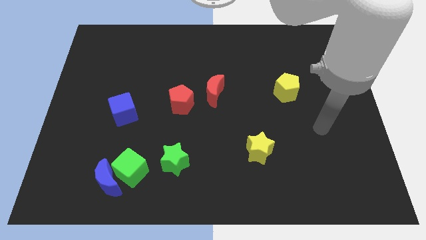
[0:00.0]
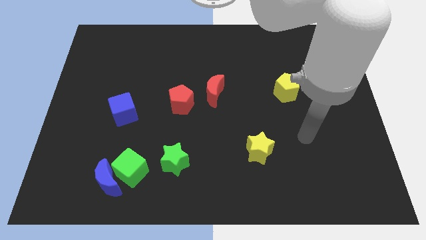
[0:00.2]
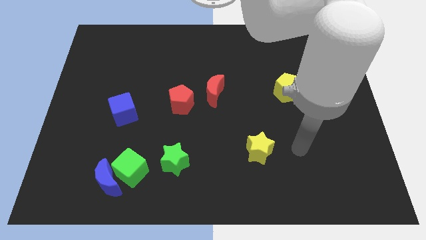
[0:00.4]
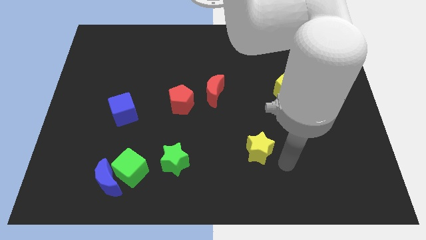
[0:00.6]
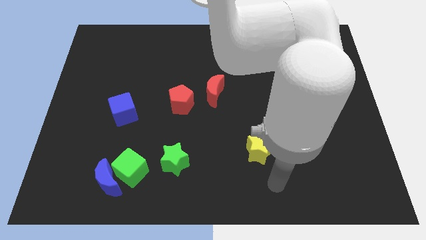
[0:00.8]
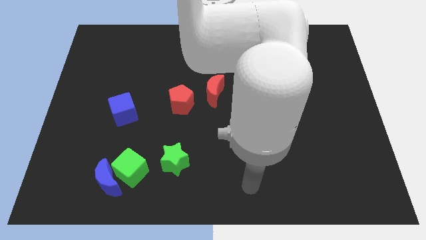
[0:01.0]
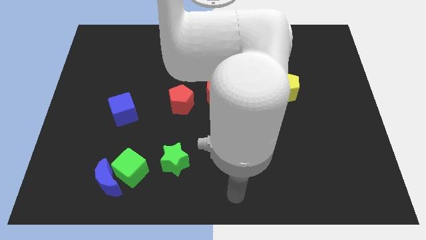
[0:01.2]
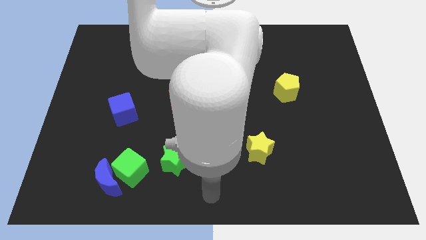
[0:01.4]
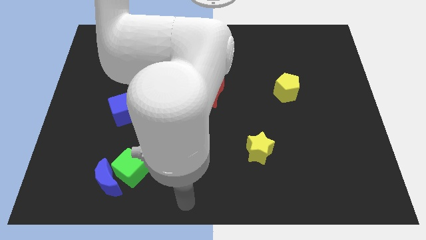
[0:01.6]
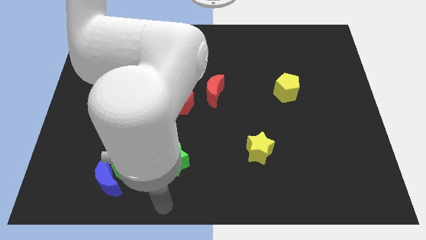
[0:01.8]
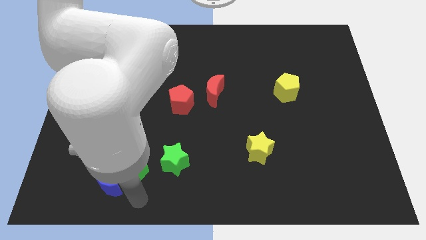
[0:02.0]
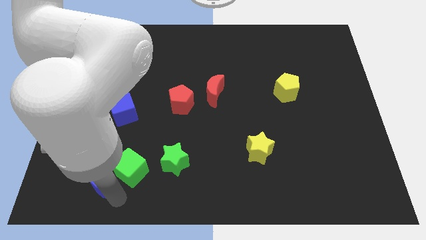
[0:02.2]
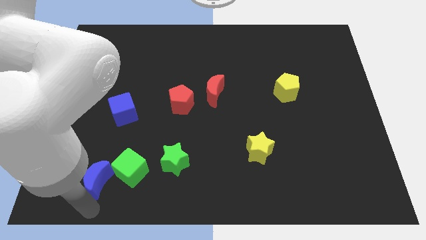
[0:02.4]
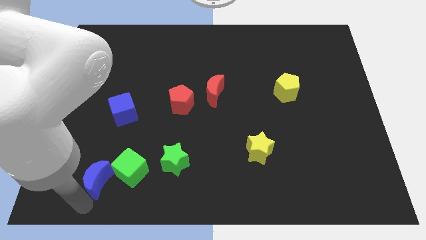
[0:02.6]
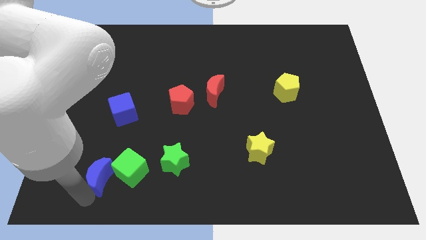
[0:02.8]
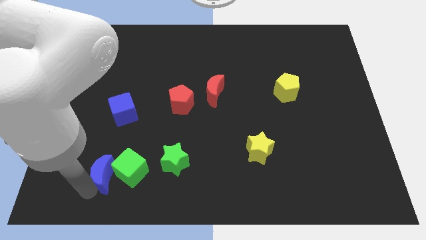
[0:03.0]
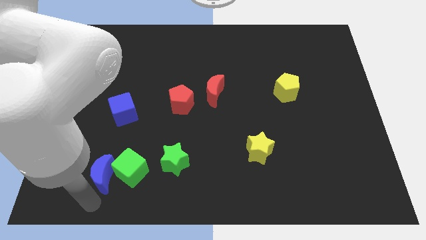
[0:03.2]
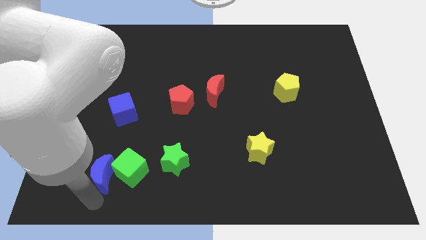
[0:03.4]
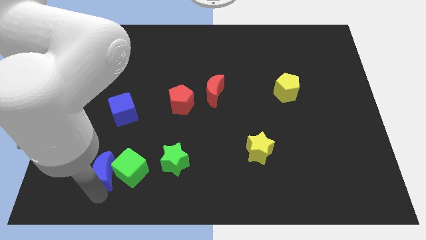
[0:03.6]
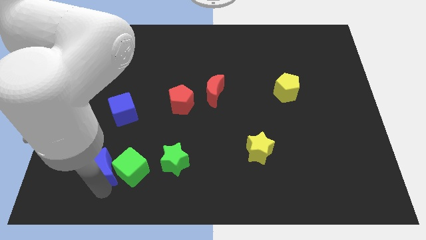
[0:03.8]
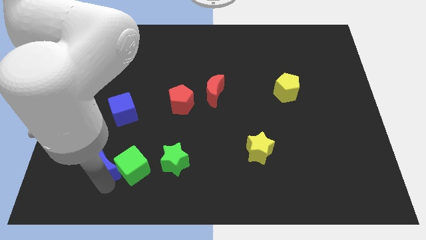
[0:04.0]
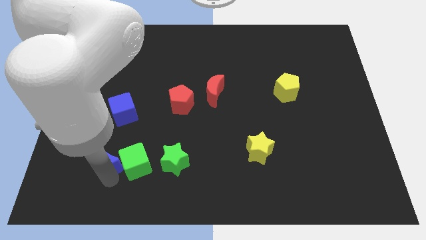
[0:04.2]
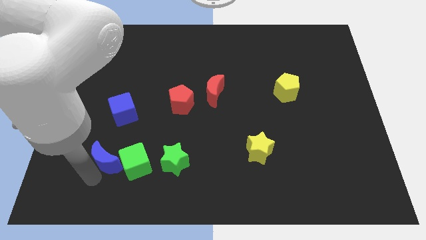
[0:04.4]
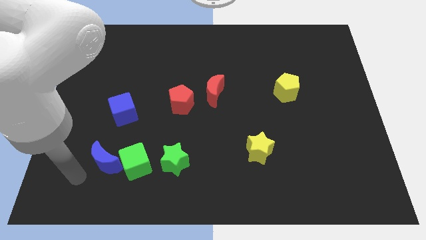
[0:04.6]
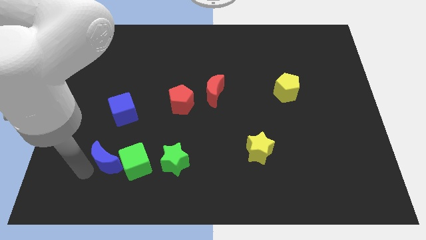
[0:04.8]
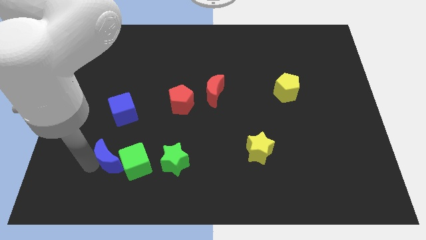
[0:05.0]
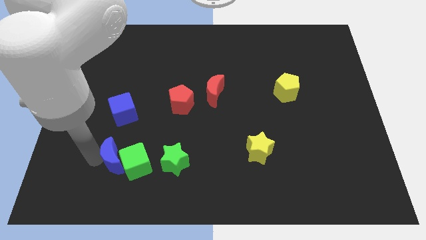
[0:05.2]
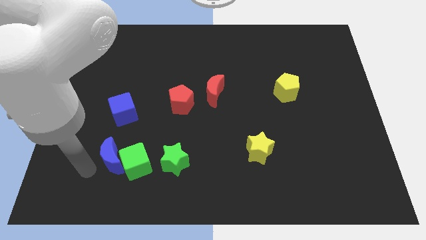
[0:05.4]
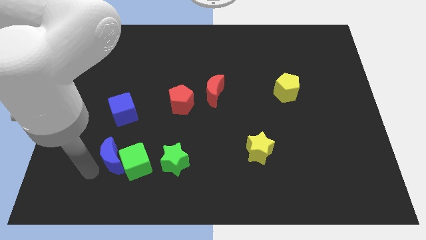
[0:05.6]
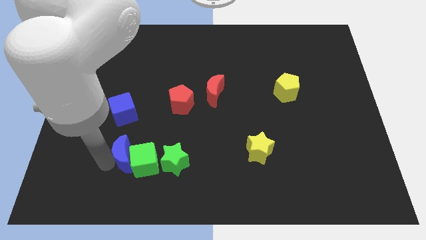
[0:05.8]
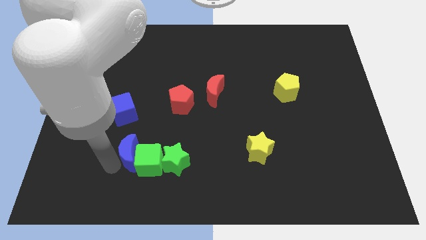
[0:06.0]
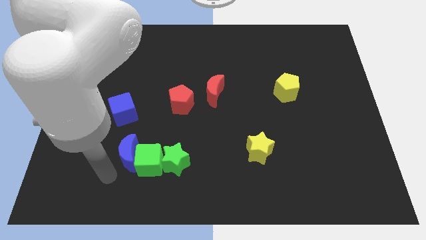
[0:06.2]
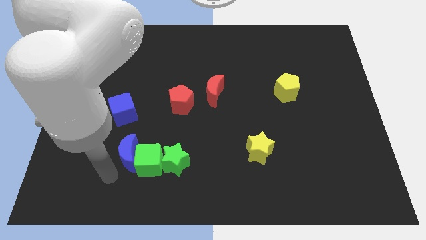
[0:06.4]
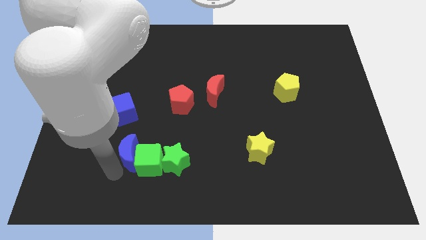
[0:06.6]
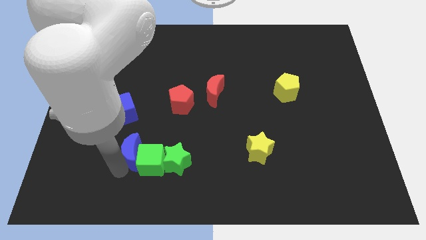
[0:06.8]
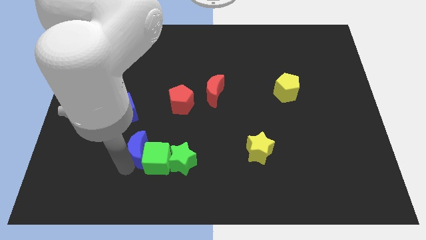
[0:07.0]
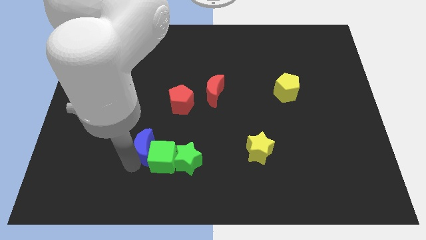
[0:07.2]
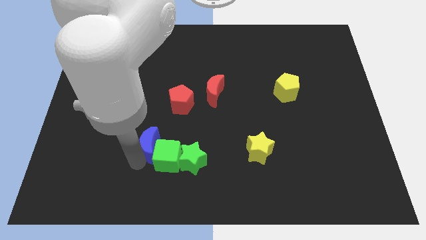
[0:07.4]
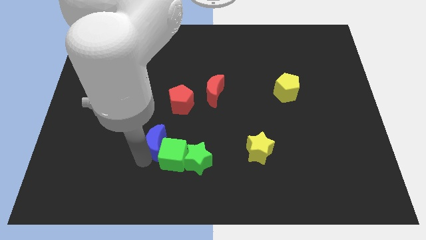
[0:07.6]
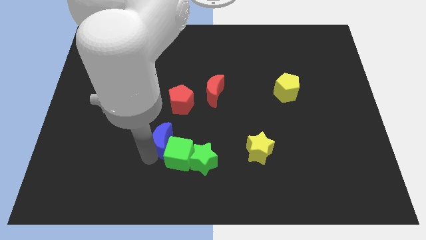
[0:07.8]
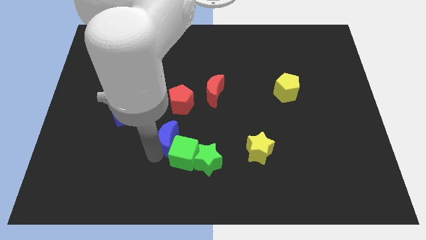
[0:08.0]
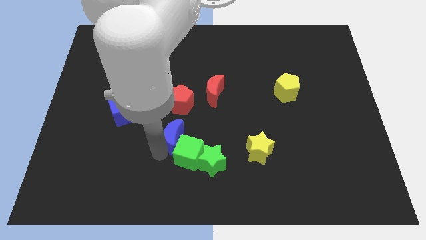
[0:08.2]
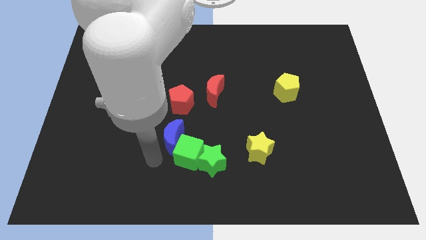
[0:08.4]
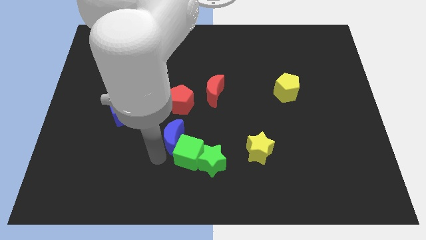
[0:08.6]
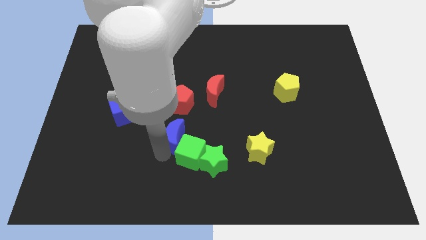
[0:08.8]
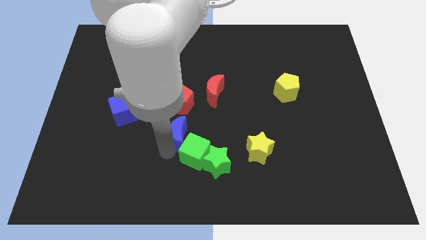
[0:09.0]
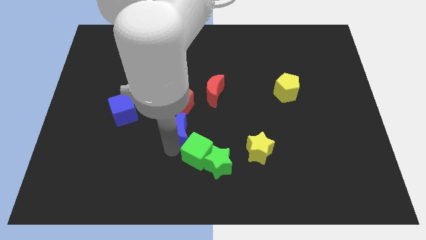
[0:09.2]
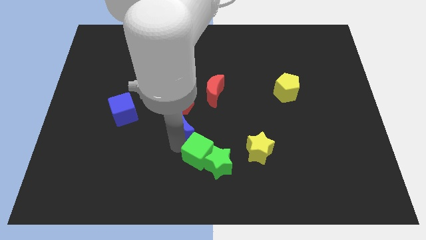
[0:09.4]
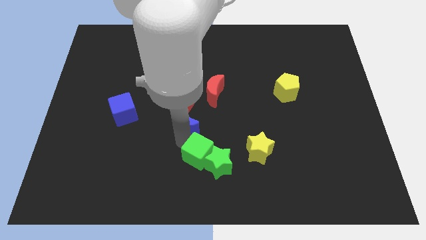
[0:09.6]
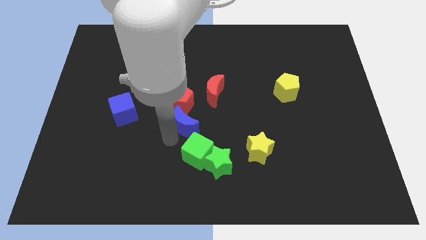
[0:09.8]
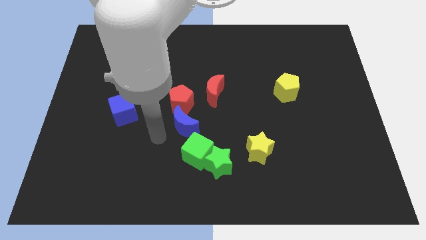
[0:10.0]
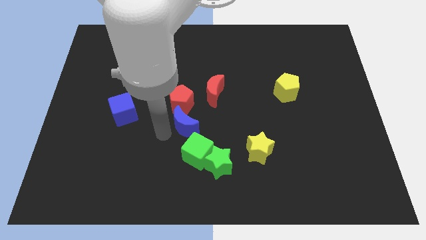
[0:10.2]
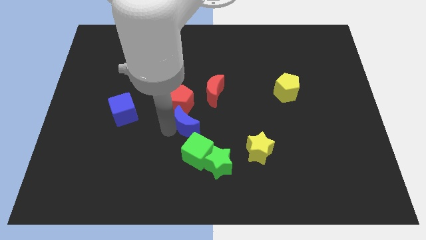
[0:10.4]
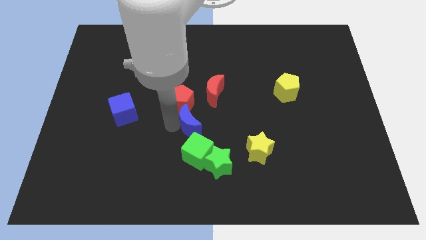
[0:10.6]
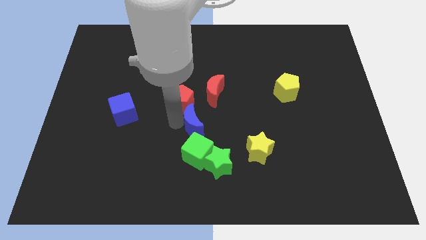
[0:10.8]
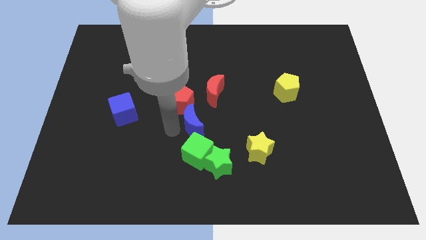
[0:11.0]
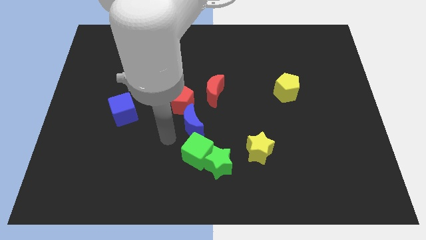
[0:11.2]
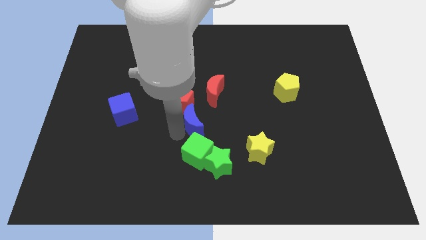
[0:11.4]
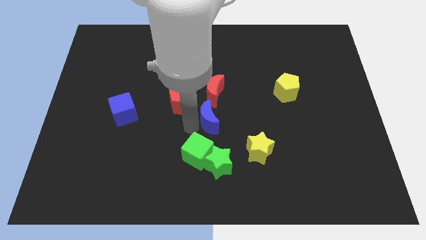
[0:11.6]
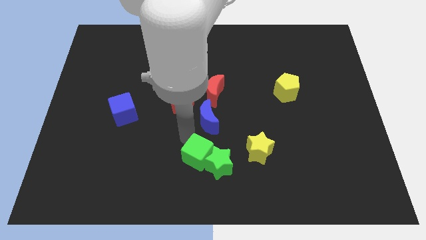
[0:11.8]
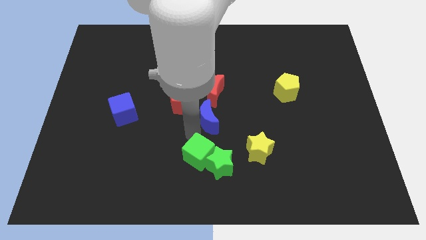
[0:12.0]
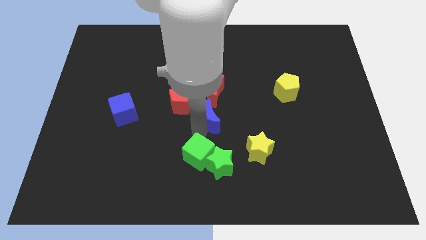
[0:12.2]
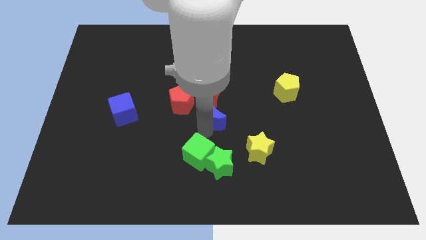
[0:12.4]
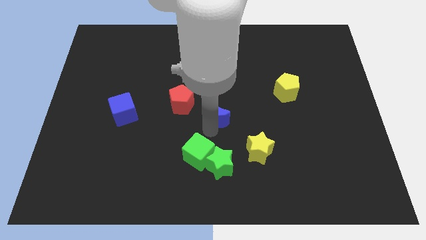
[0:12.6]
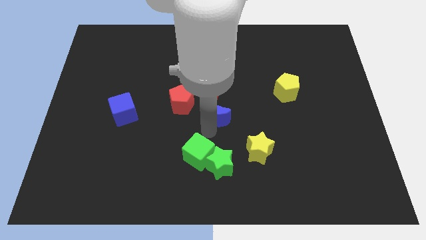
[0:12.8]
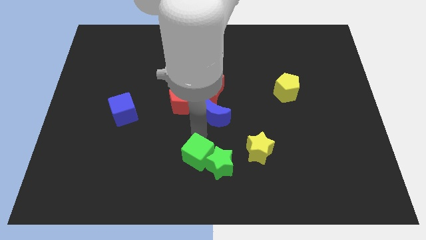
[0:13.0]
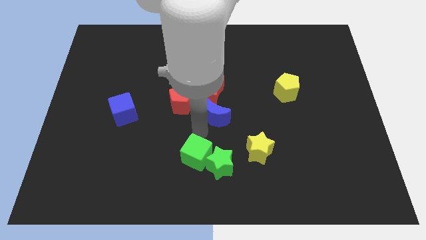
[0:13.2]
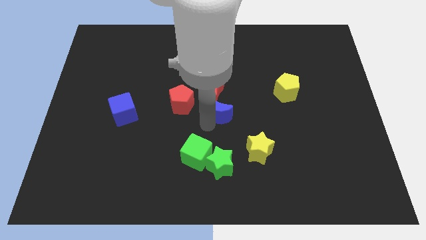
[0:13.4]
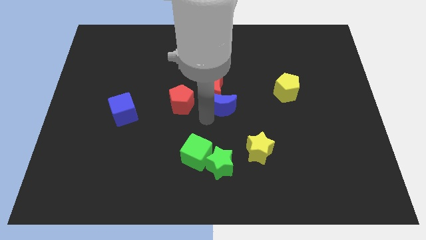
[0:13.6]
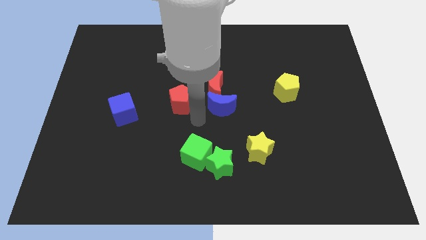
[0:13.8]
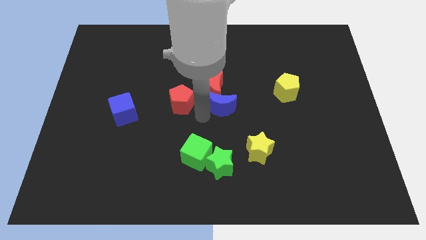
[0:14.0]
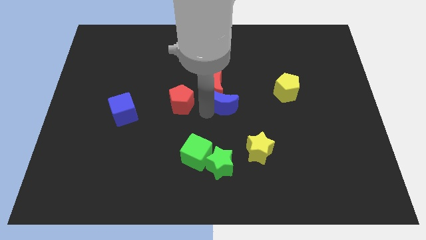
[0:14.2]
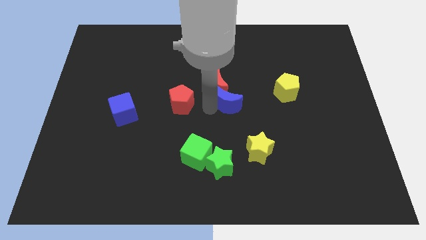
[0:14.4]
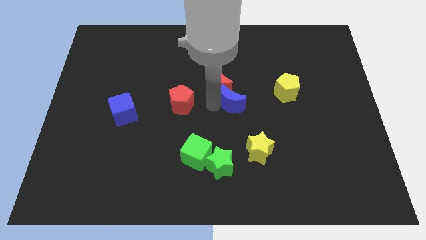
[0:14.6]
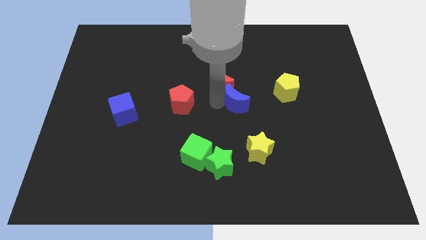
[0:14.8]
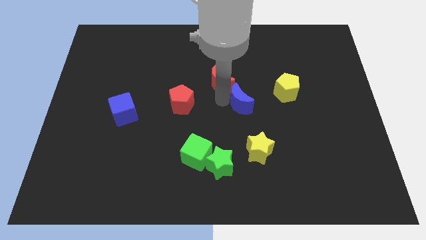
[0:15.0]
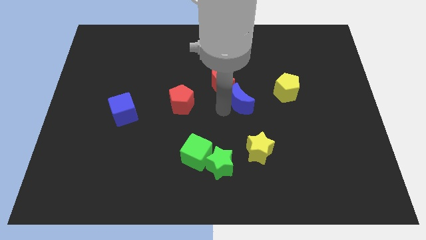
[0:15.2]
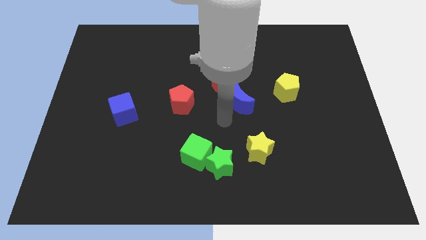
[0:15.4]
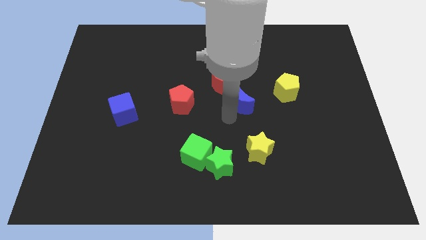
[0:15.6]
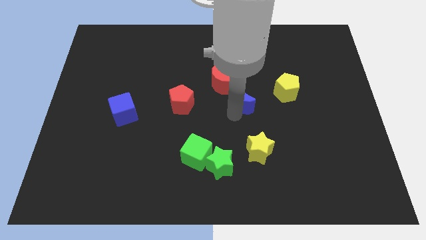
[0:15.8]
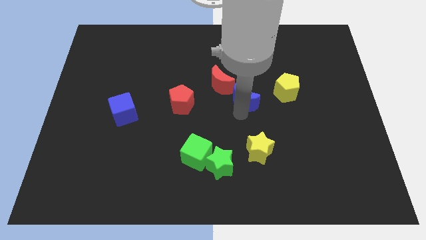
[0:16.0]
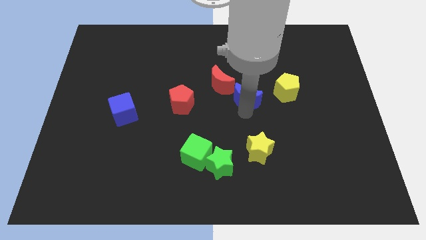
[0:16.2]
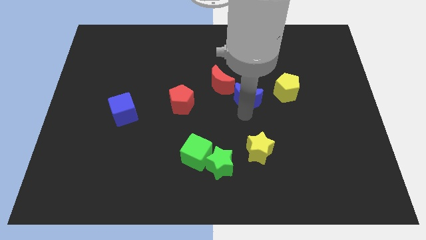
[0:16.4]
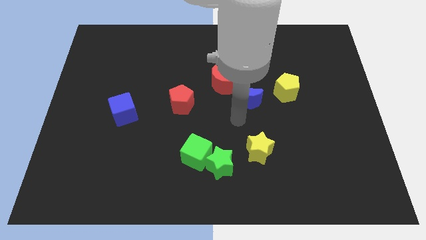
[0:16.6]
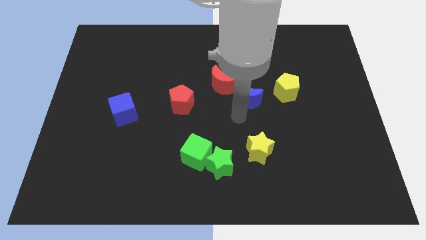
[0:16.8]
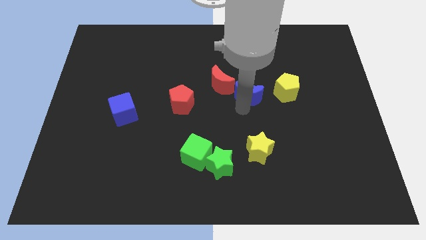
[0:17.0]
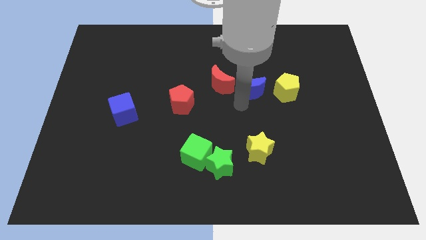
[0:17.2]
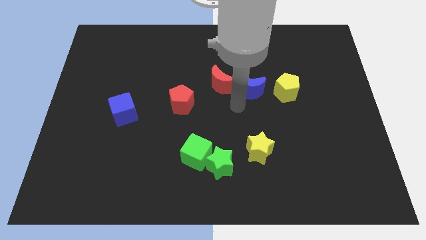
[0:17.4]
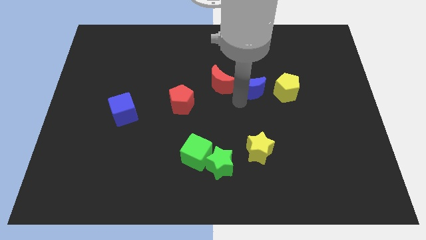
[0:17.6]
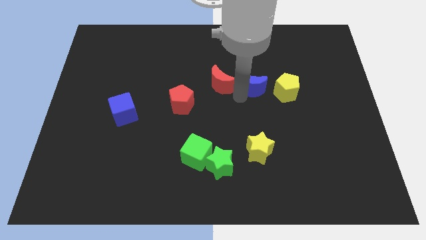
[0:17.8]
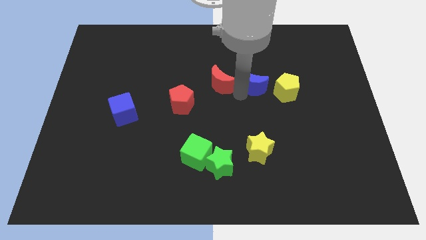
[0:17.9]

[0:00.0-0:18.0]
slide the blue moon to the top left of the yellow pentagon
